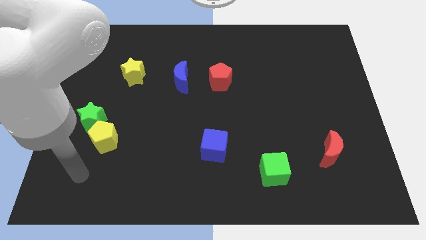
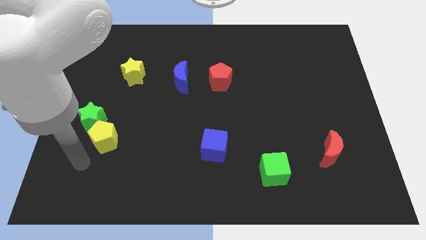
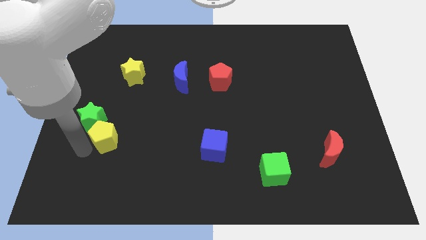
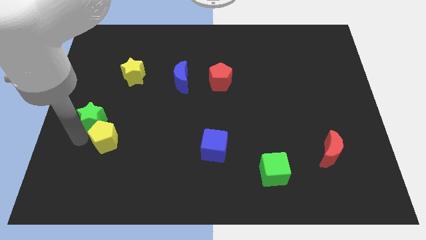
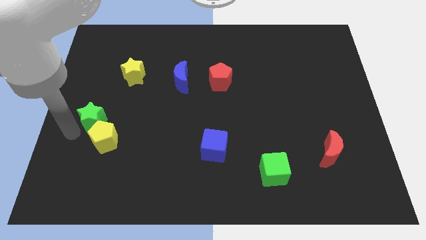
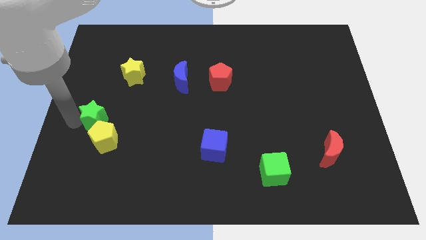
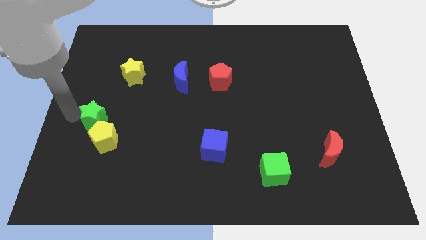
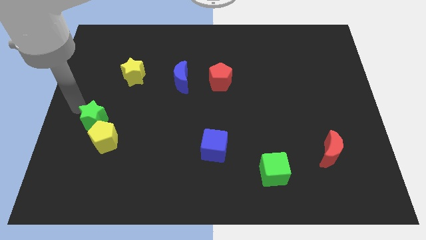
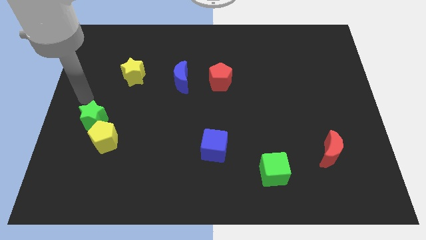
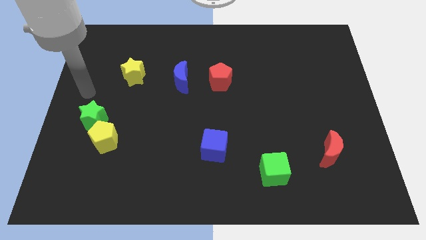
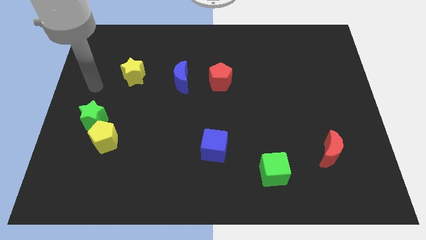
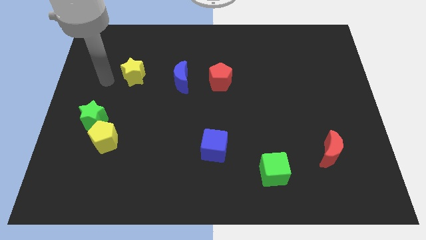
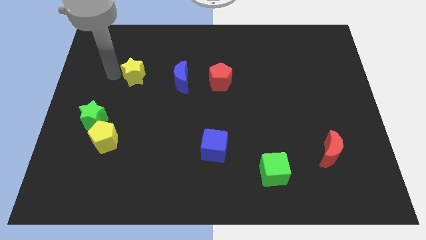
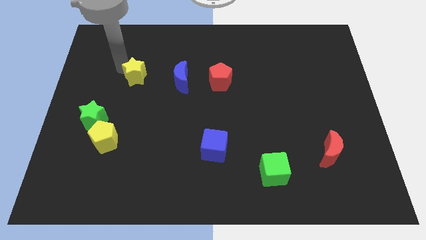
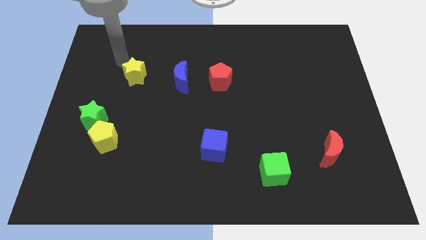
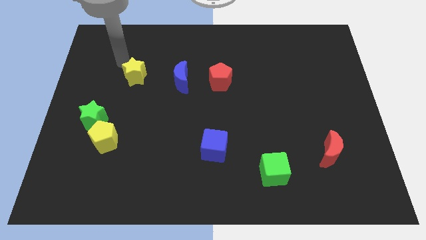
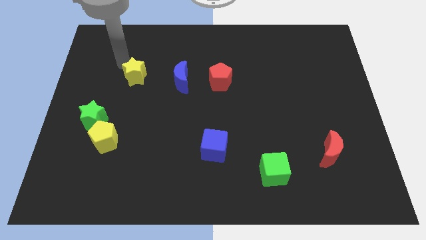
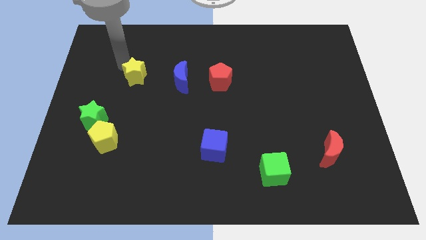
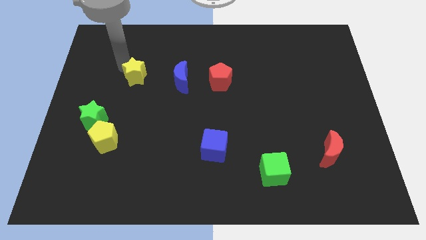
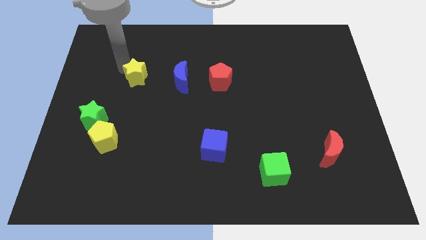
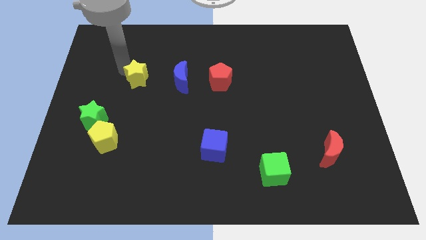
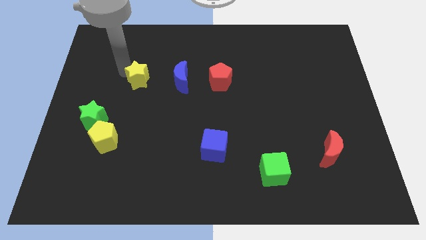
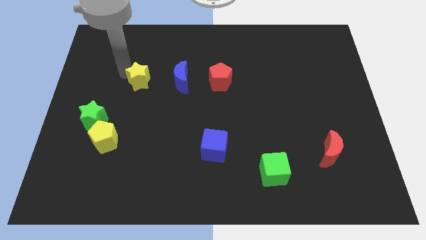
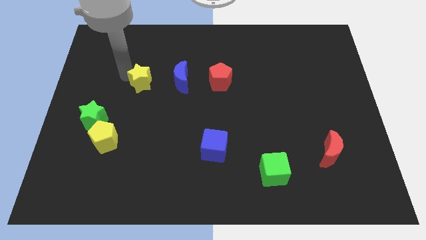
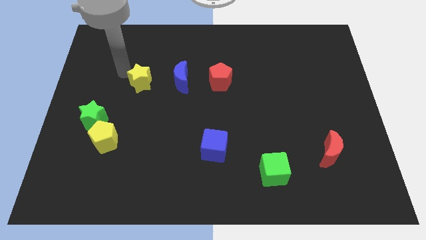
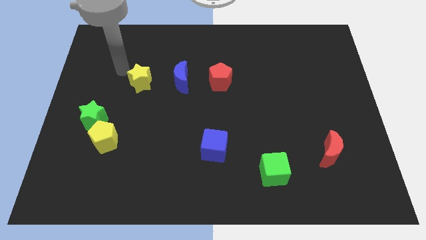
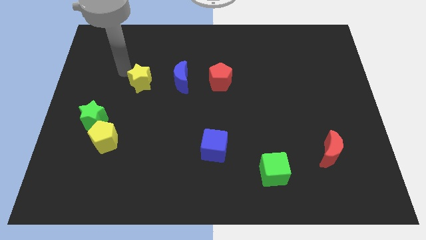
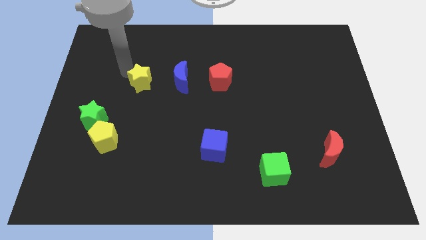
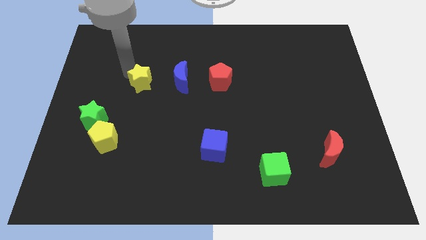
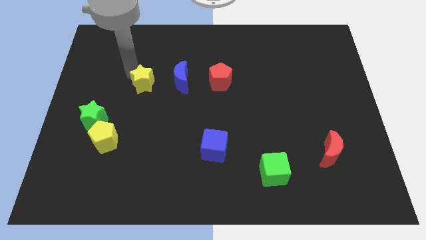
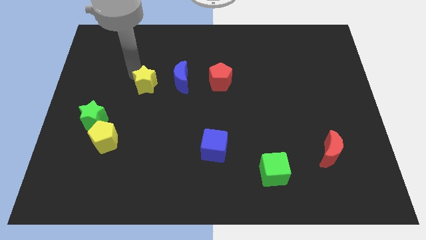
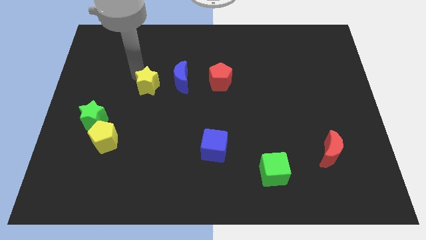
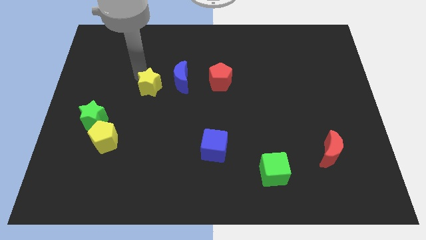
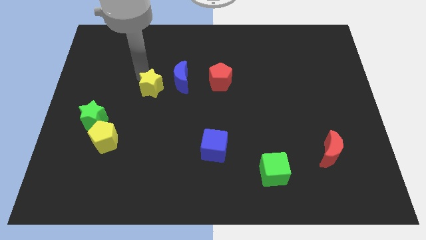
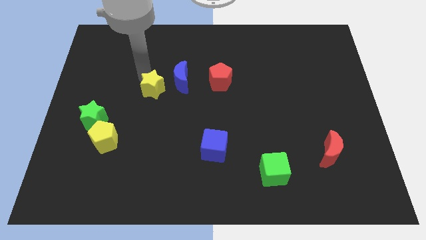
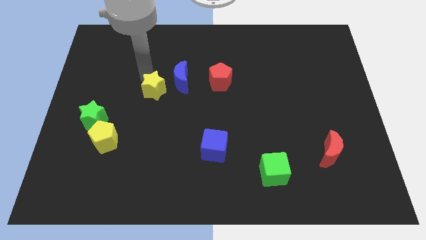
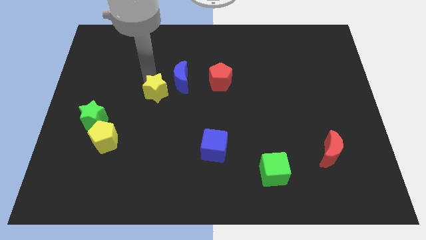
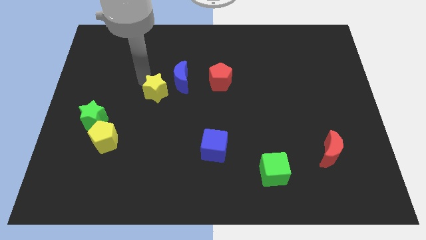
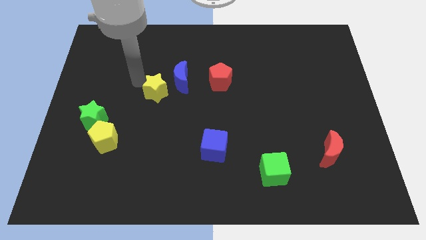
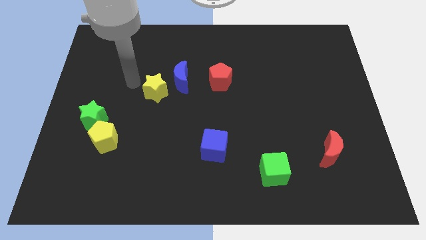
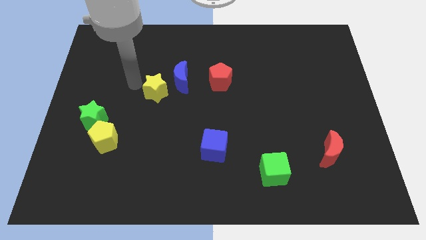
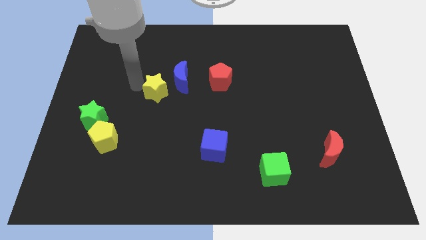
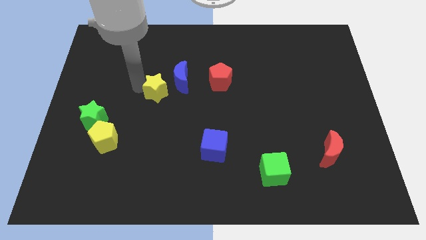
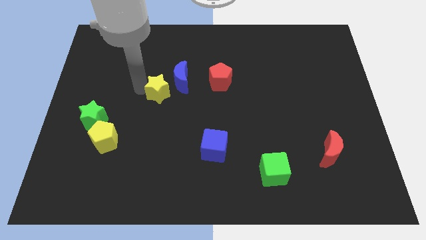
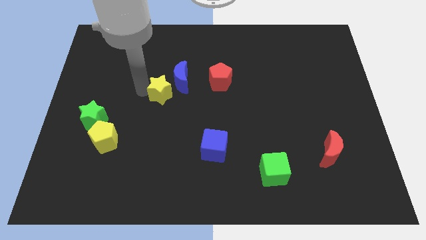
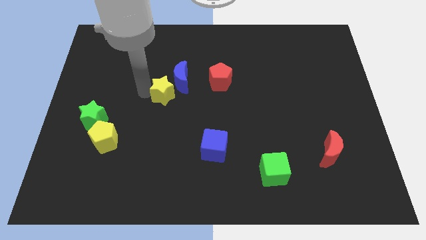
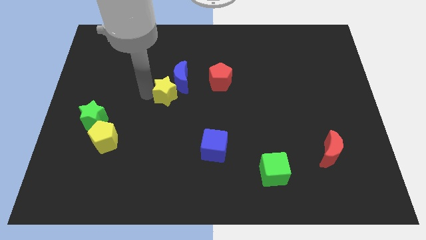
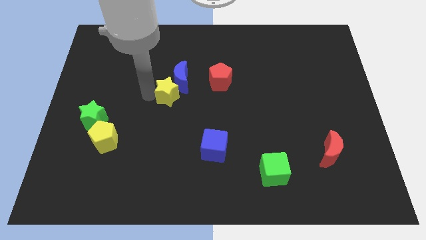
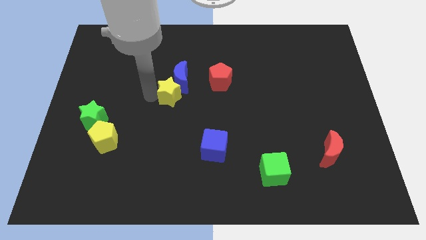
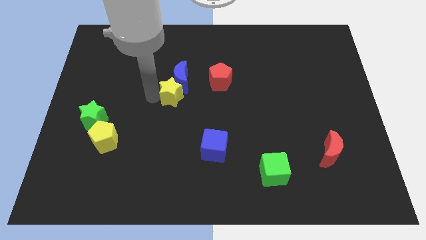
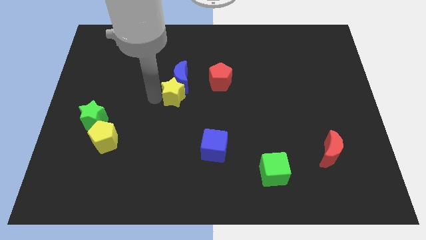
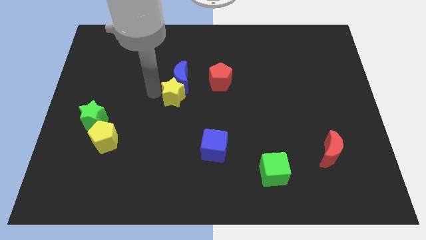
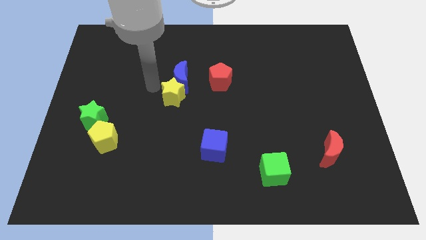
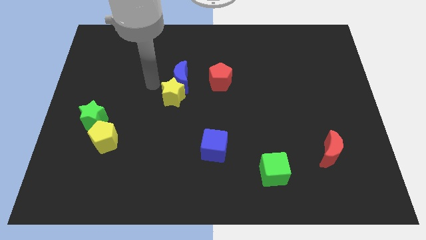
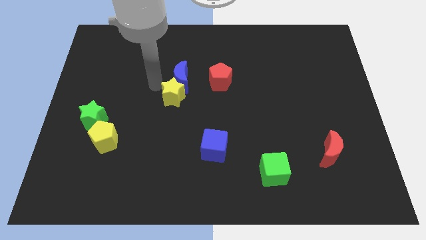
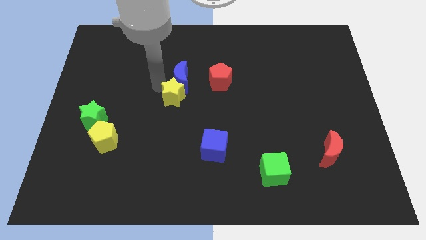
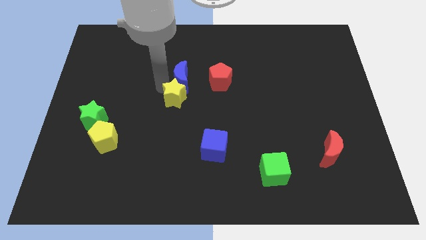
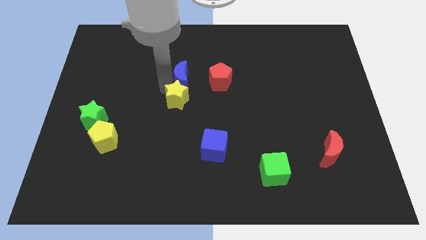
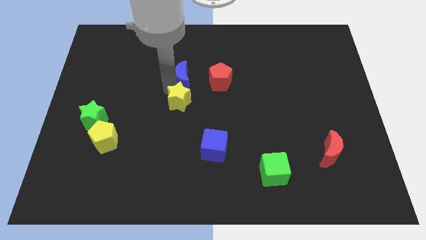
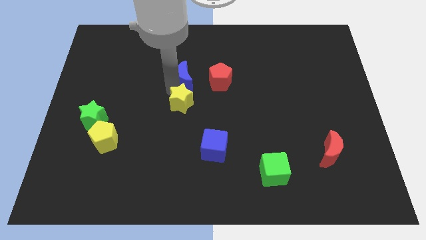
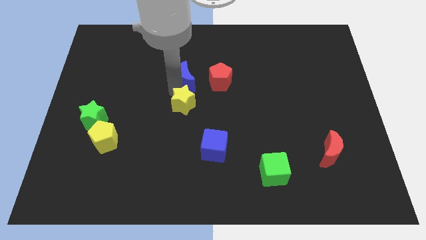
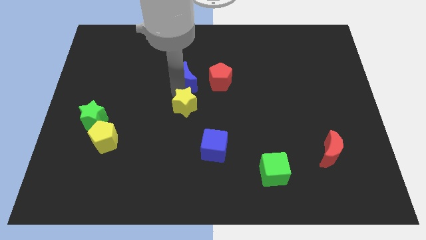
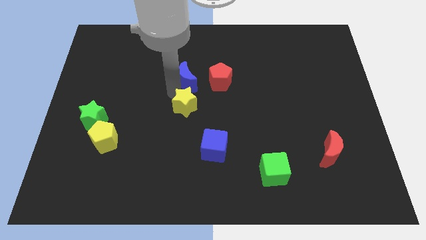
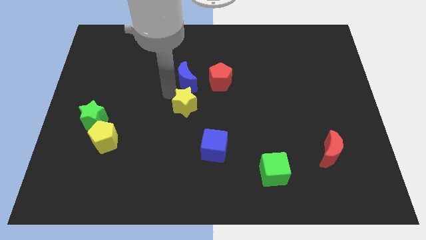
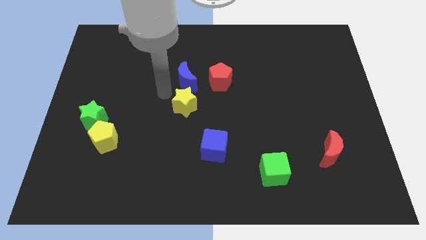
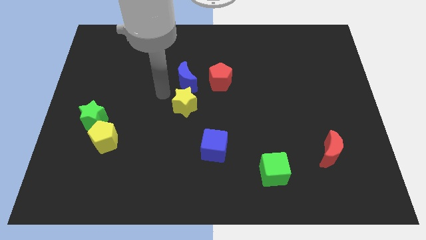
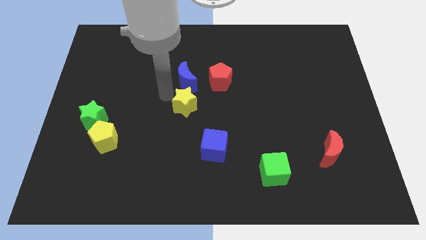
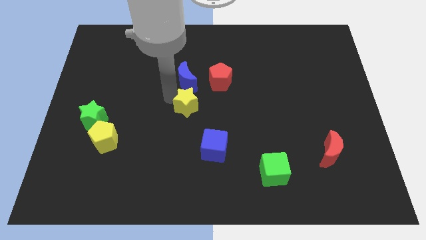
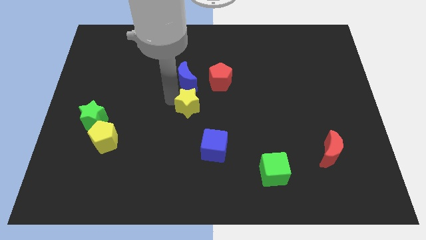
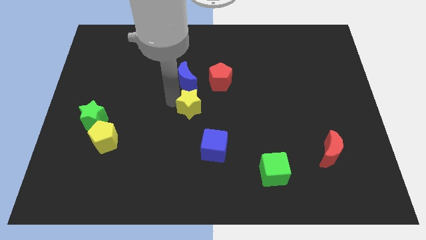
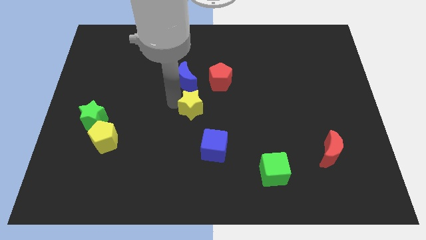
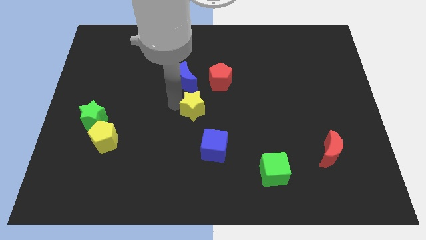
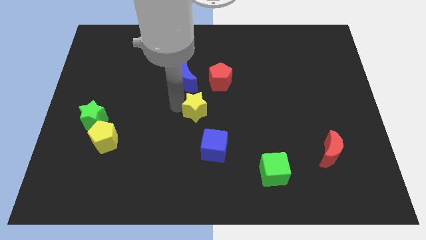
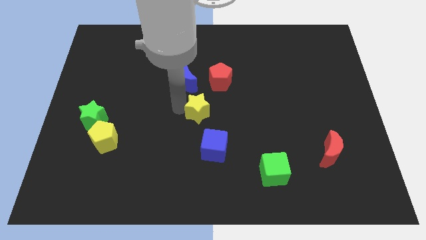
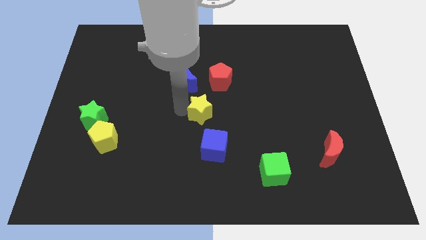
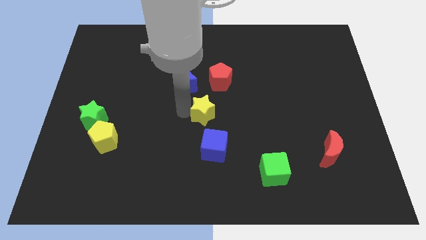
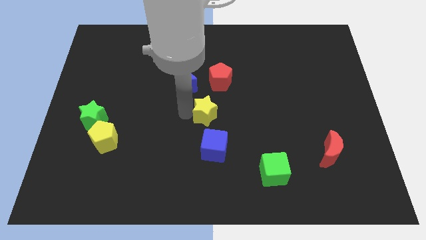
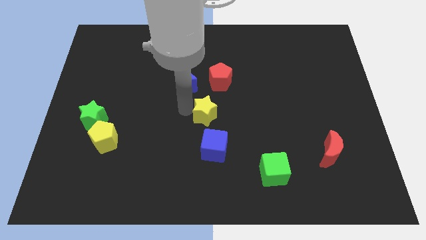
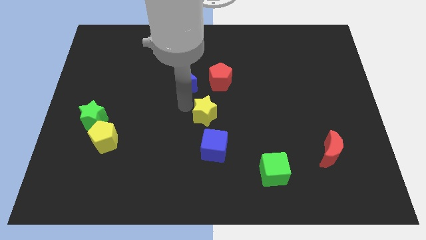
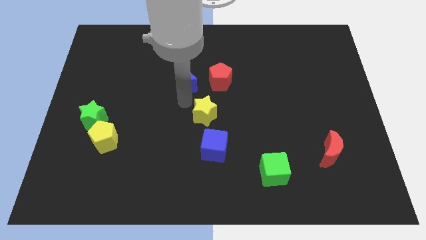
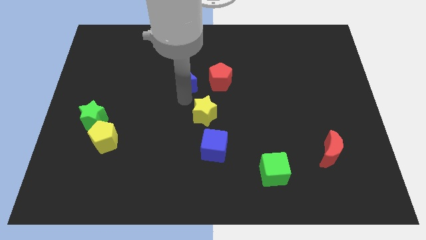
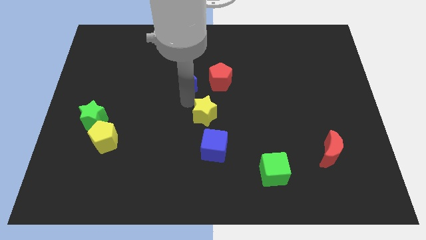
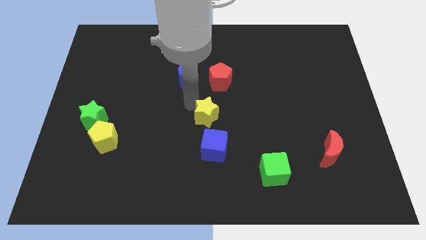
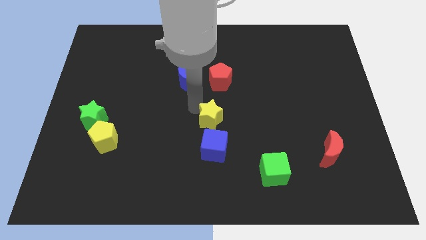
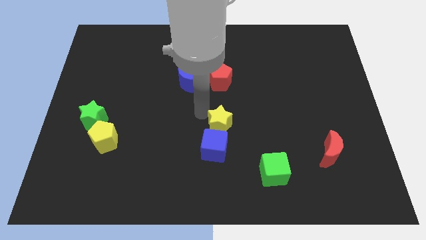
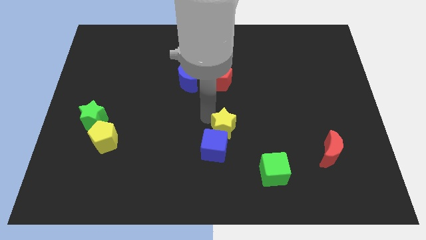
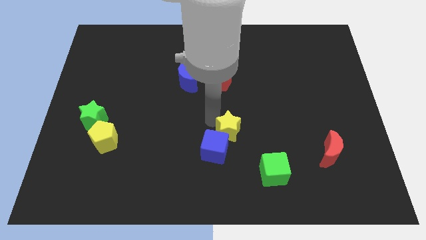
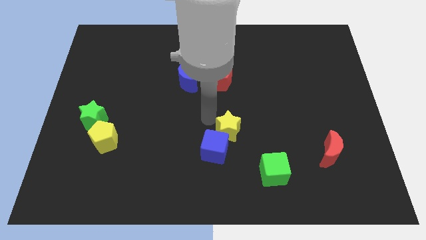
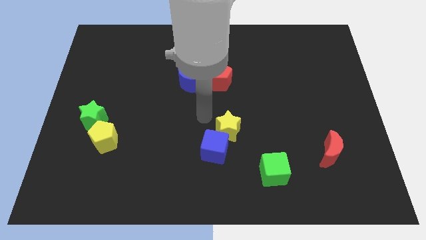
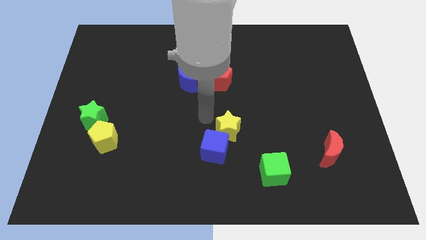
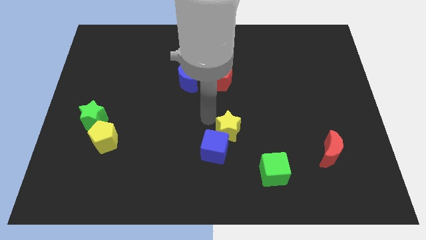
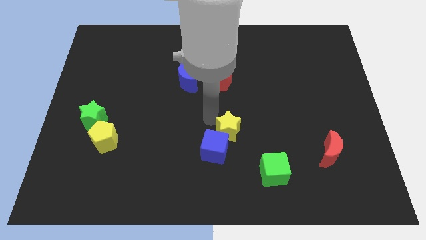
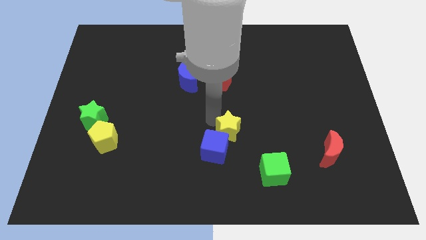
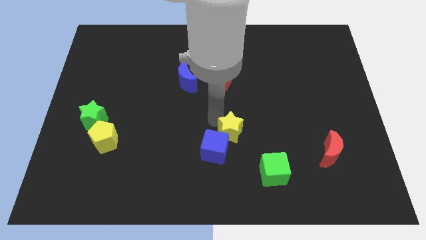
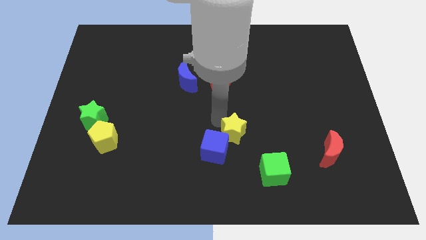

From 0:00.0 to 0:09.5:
move the yellow star to the top left of the green cube
